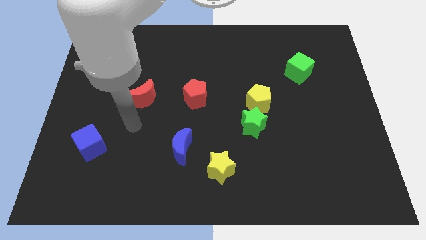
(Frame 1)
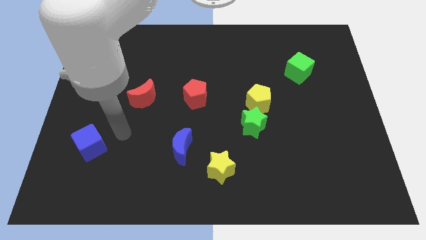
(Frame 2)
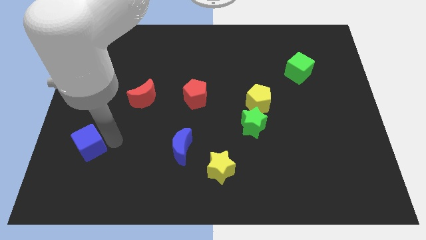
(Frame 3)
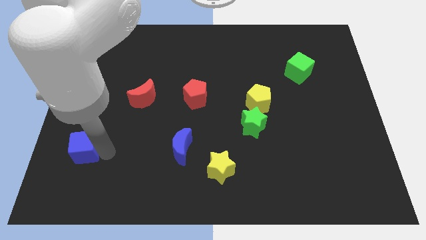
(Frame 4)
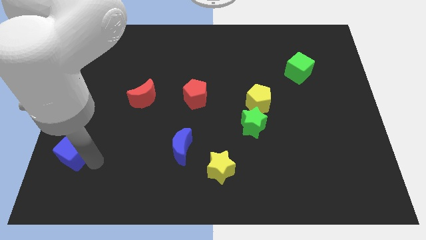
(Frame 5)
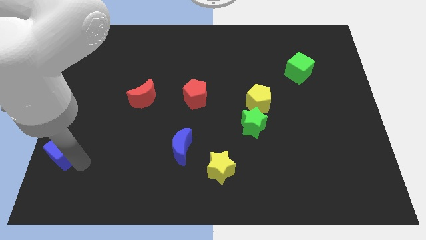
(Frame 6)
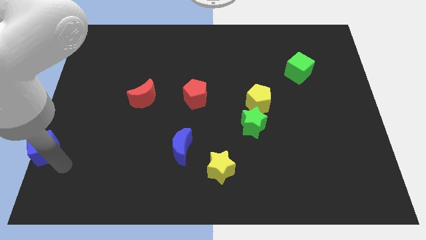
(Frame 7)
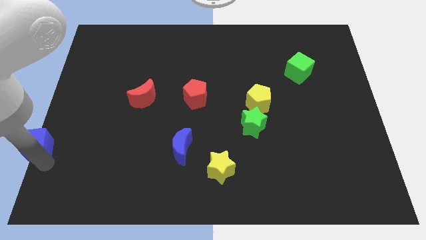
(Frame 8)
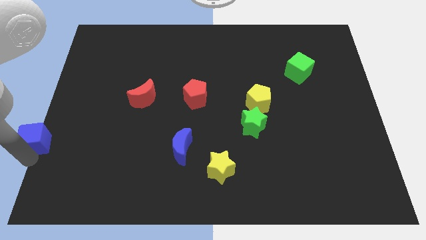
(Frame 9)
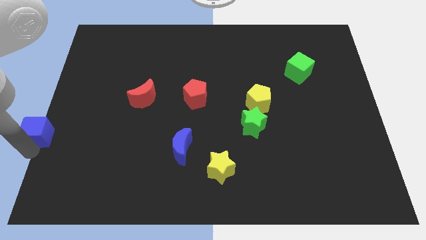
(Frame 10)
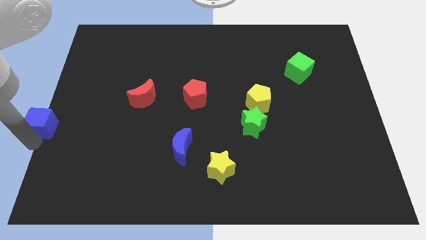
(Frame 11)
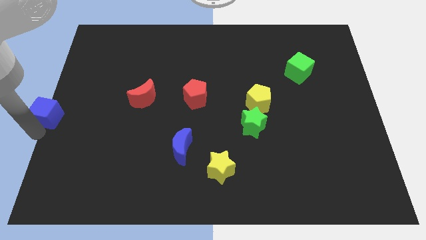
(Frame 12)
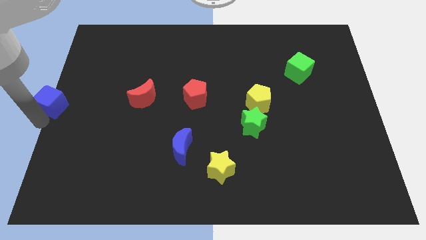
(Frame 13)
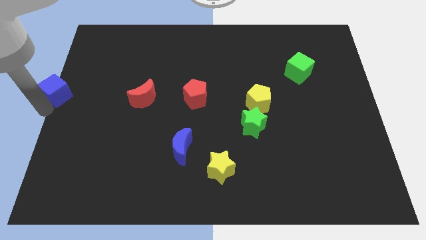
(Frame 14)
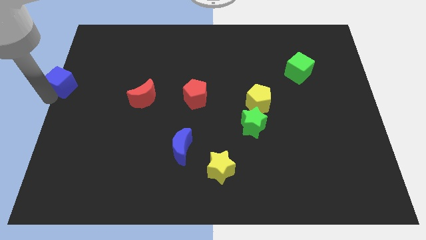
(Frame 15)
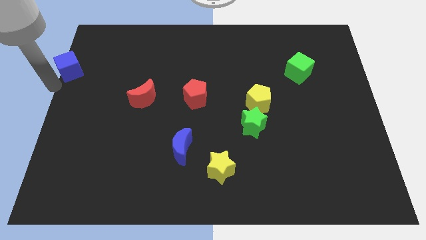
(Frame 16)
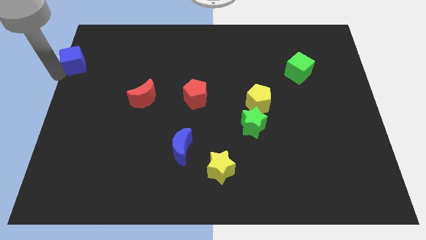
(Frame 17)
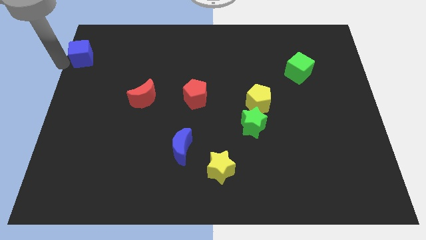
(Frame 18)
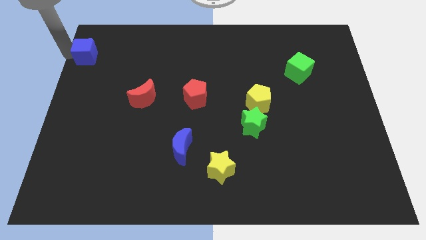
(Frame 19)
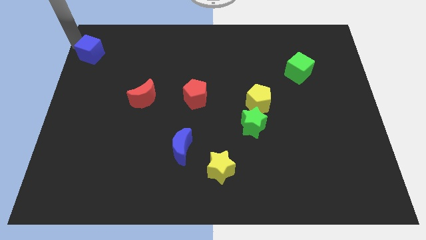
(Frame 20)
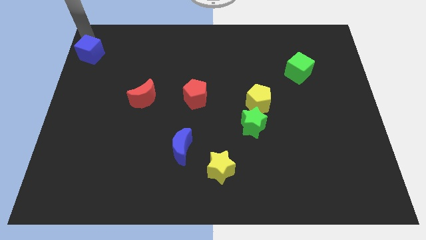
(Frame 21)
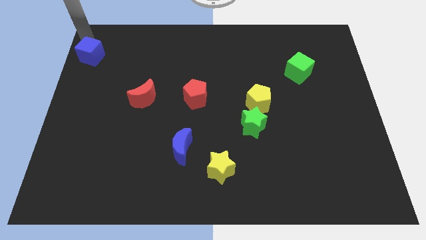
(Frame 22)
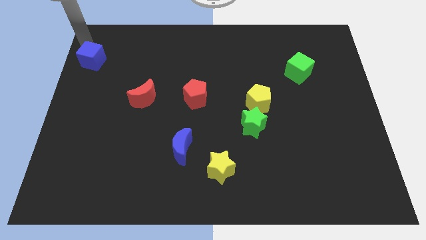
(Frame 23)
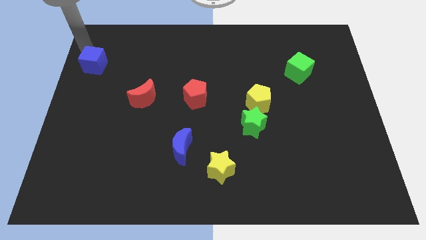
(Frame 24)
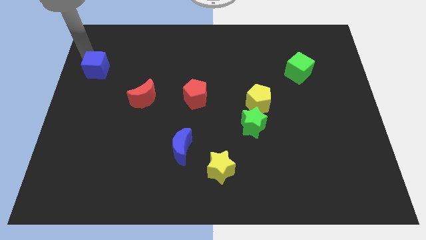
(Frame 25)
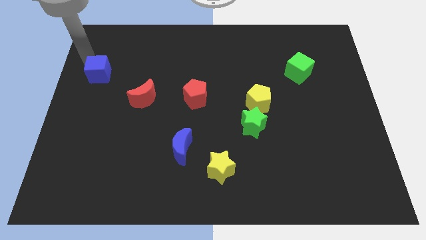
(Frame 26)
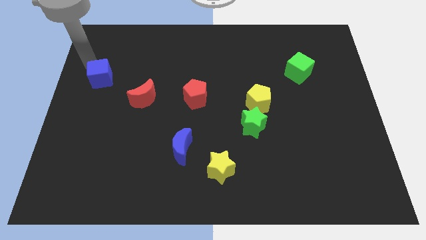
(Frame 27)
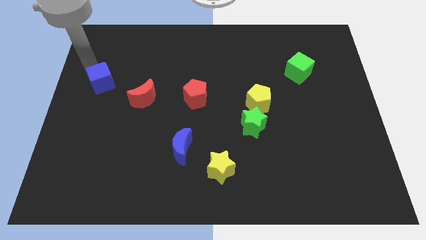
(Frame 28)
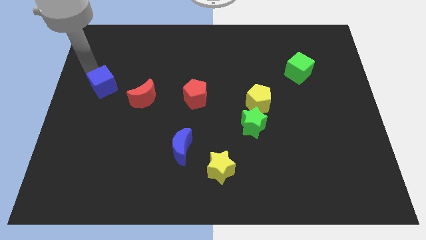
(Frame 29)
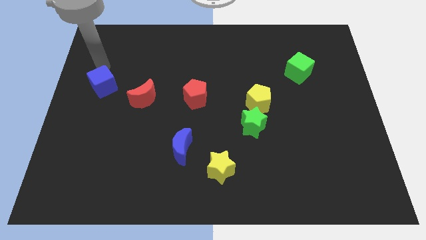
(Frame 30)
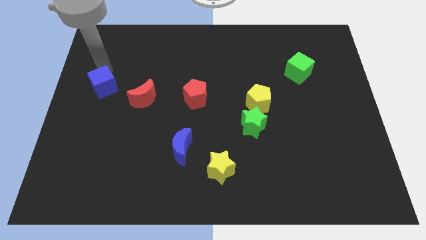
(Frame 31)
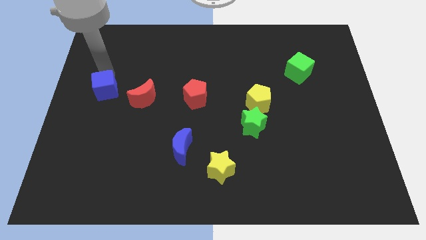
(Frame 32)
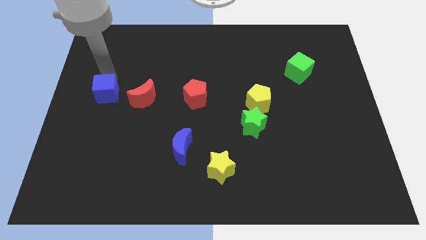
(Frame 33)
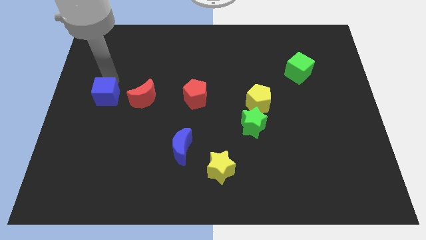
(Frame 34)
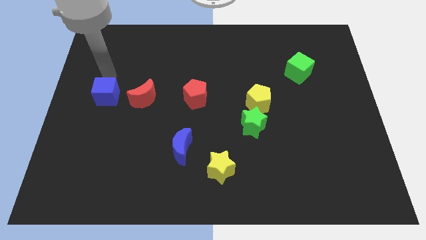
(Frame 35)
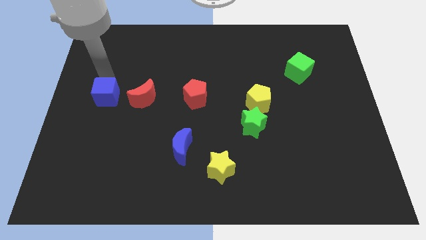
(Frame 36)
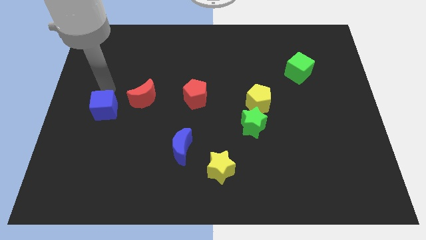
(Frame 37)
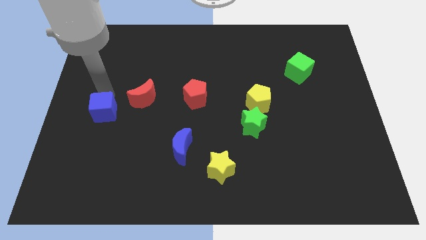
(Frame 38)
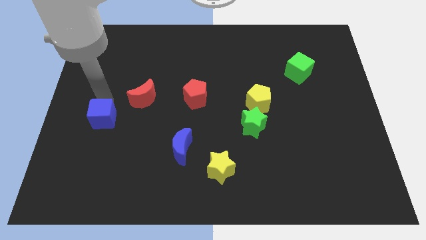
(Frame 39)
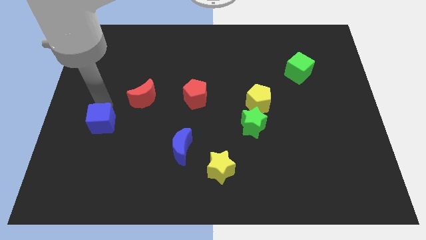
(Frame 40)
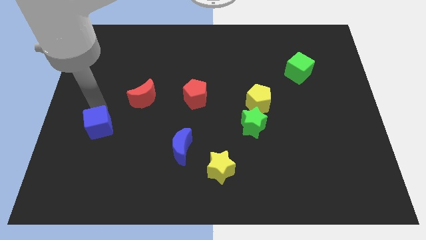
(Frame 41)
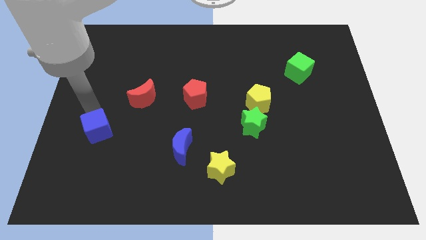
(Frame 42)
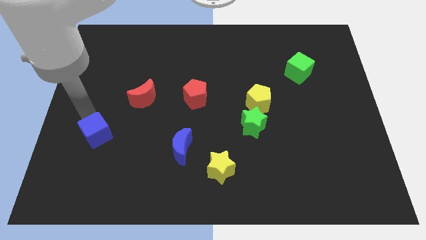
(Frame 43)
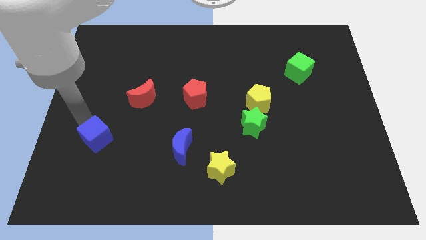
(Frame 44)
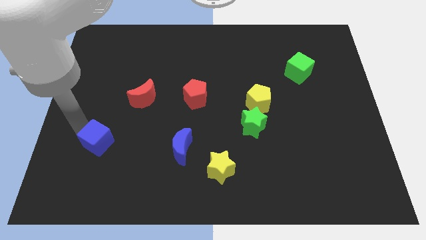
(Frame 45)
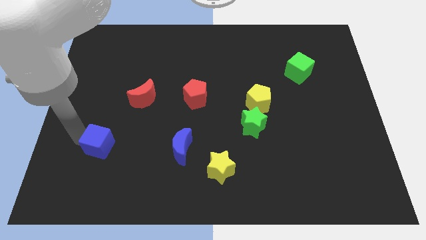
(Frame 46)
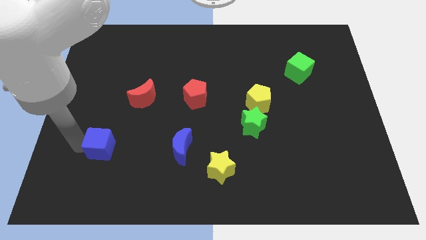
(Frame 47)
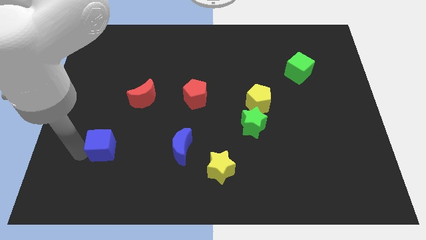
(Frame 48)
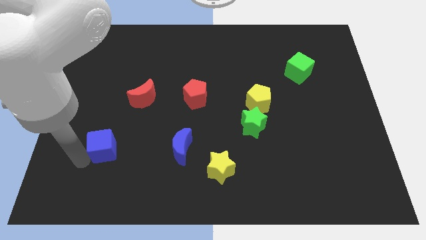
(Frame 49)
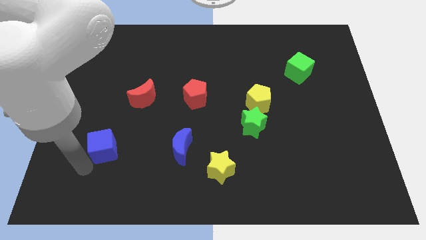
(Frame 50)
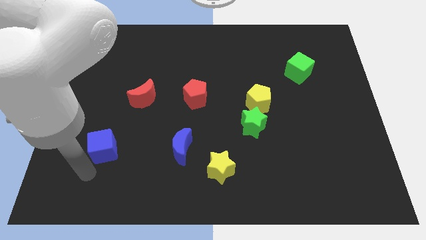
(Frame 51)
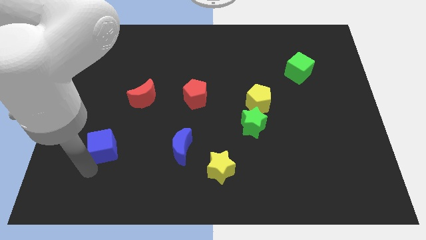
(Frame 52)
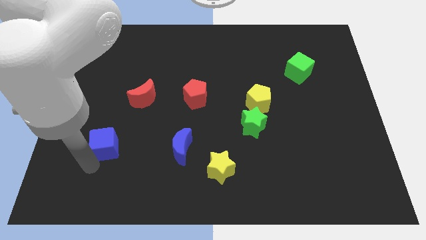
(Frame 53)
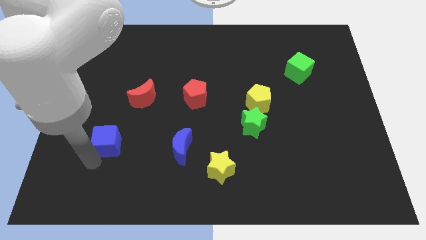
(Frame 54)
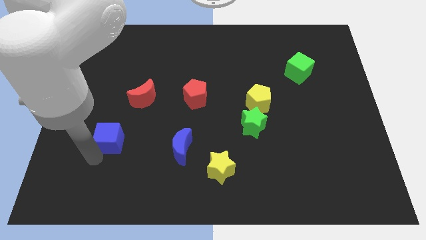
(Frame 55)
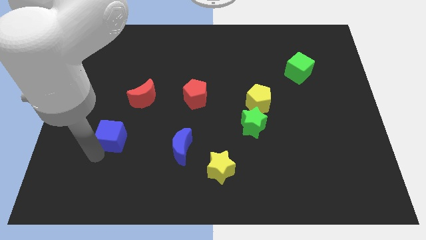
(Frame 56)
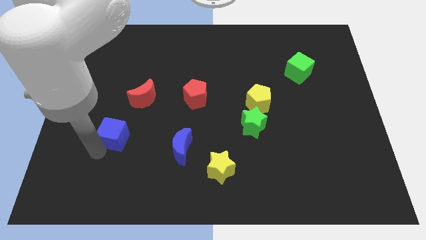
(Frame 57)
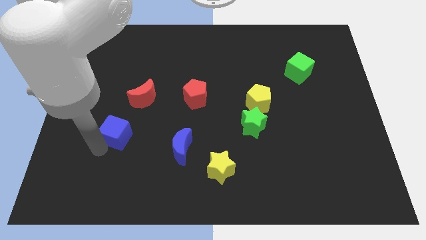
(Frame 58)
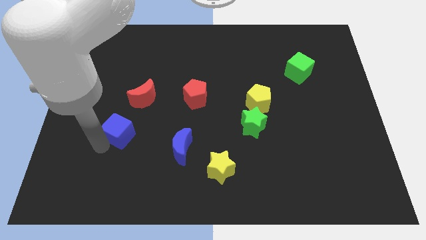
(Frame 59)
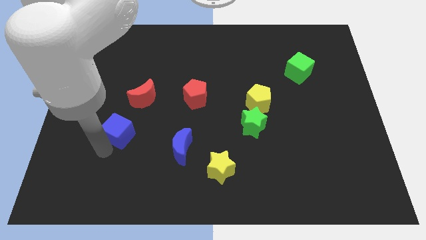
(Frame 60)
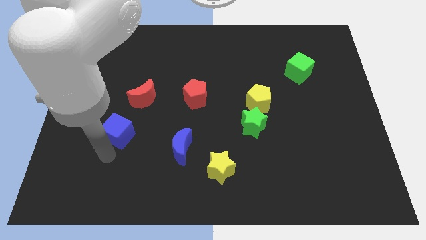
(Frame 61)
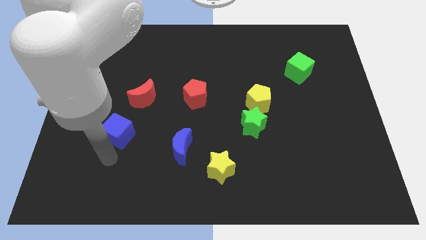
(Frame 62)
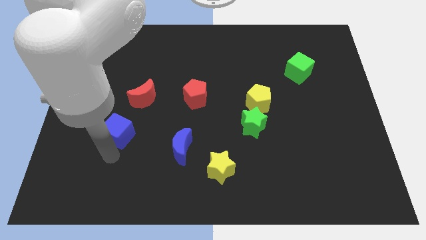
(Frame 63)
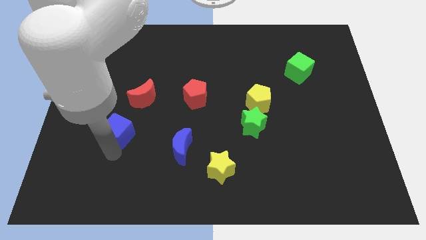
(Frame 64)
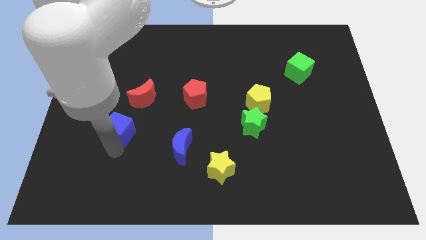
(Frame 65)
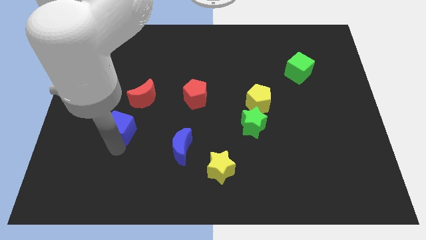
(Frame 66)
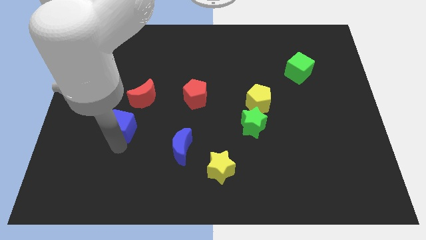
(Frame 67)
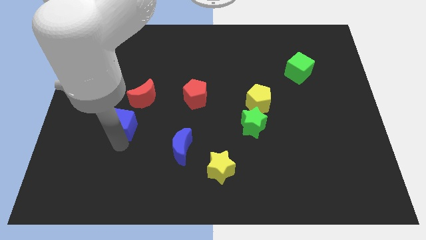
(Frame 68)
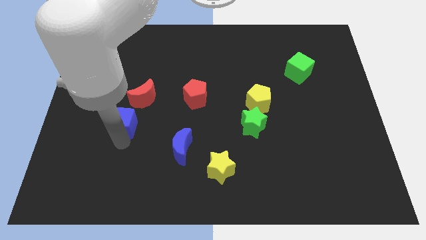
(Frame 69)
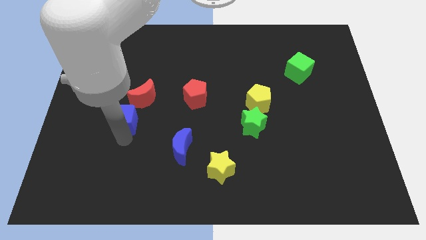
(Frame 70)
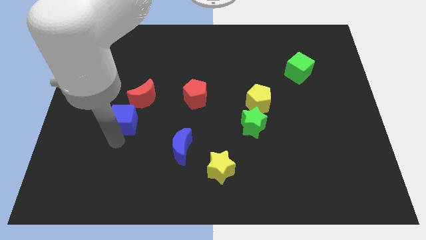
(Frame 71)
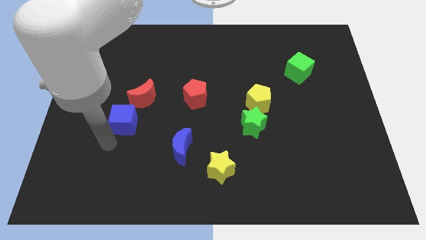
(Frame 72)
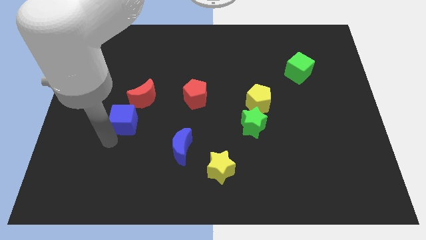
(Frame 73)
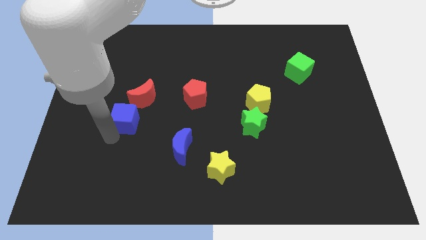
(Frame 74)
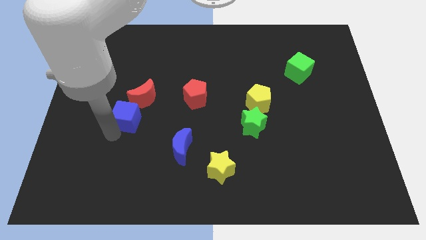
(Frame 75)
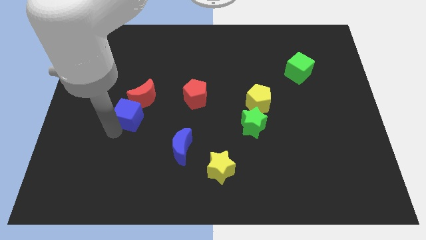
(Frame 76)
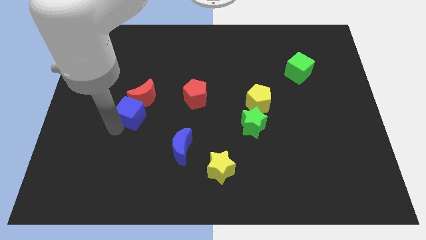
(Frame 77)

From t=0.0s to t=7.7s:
move the blue cube towards the red moon
